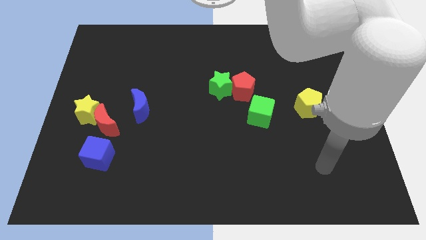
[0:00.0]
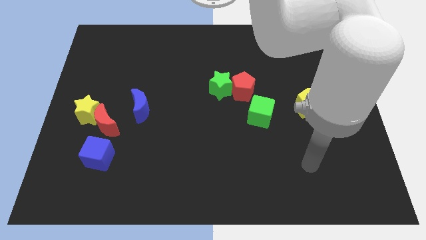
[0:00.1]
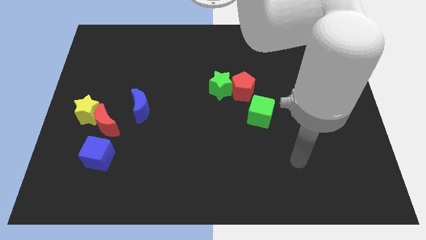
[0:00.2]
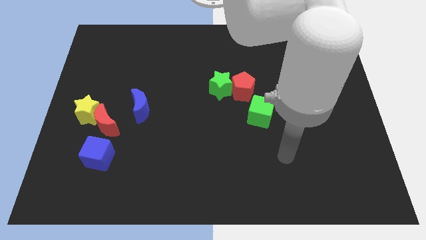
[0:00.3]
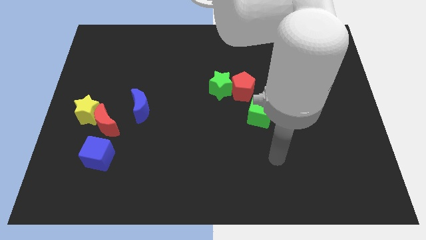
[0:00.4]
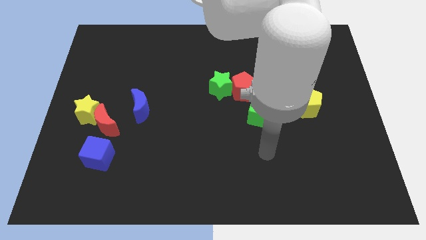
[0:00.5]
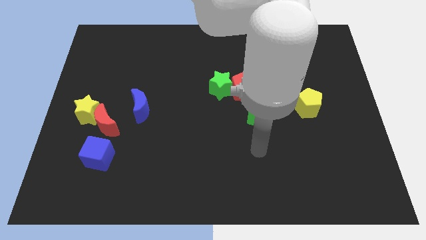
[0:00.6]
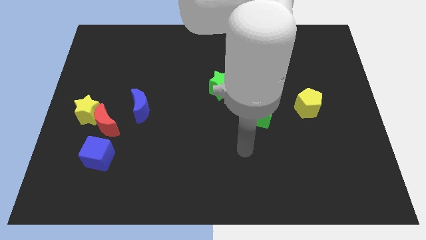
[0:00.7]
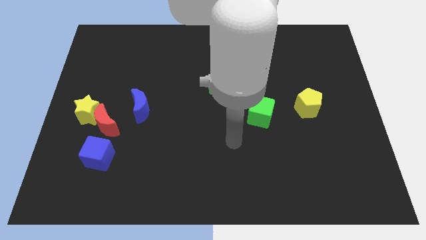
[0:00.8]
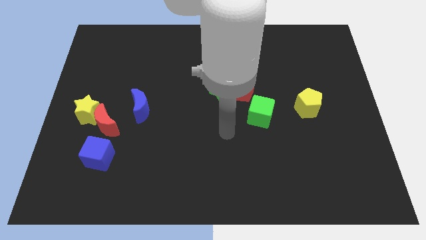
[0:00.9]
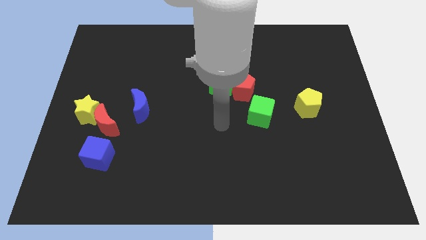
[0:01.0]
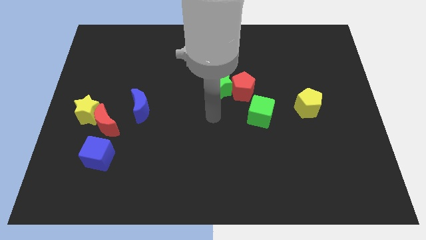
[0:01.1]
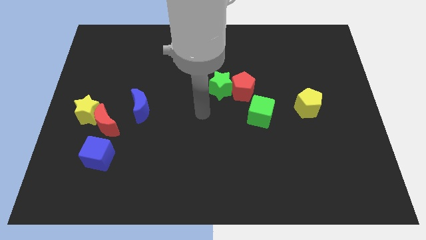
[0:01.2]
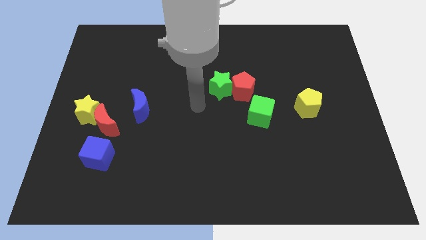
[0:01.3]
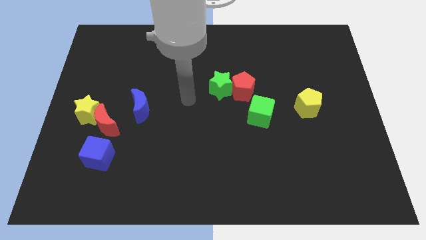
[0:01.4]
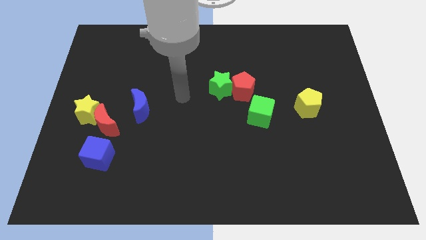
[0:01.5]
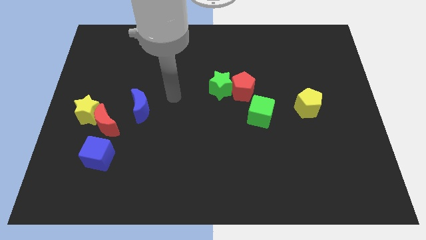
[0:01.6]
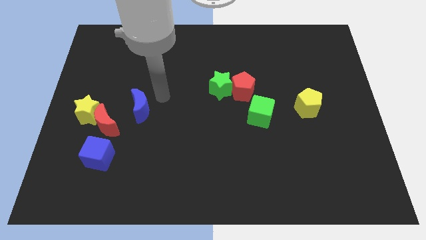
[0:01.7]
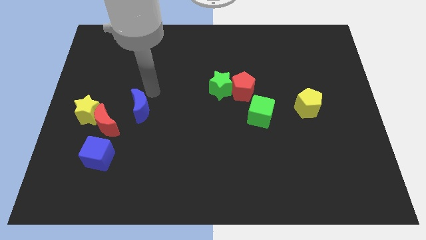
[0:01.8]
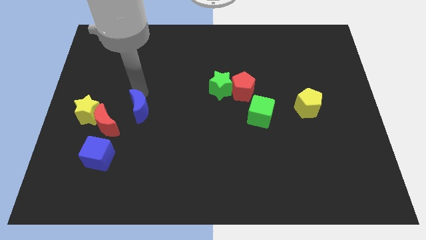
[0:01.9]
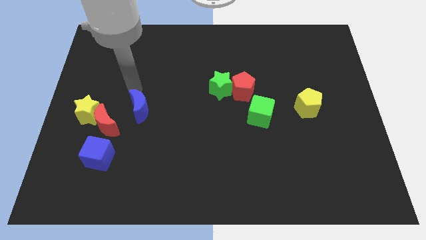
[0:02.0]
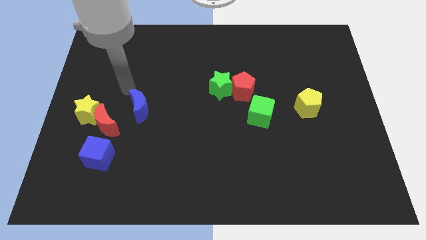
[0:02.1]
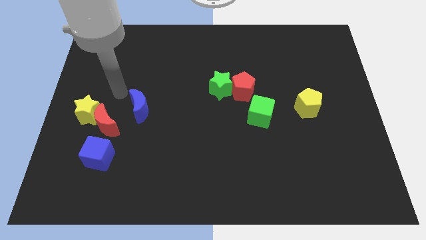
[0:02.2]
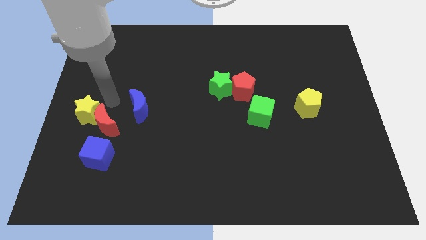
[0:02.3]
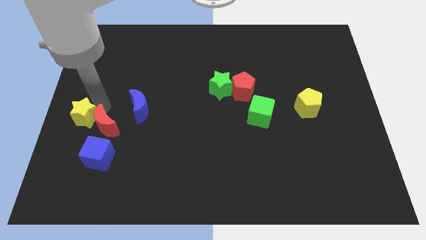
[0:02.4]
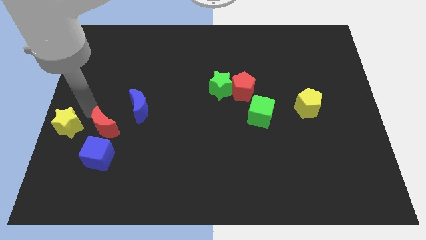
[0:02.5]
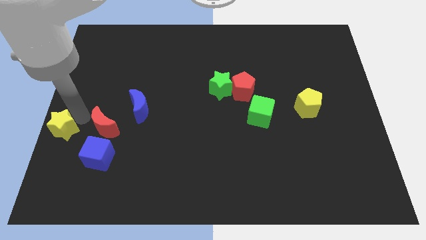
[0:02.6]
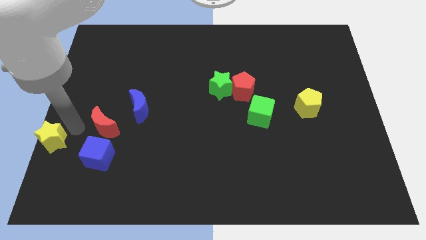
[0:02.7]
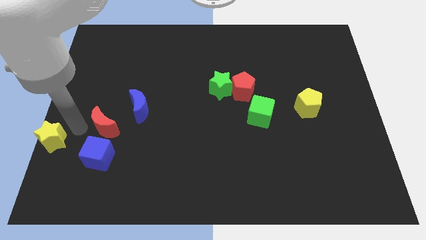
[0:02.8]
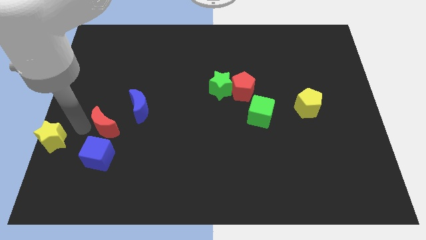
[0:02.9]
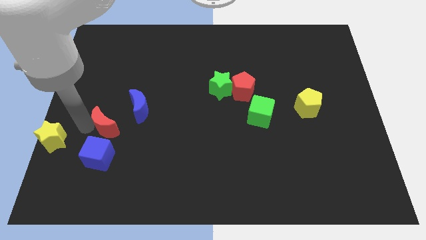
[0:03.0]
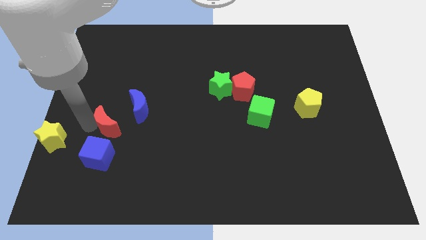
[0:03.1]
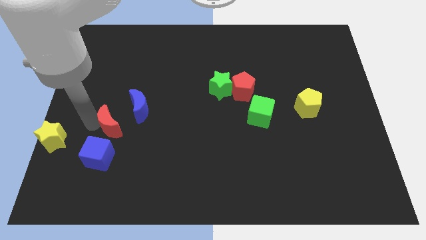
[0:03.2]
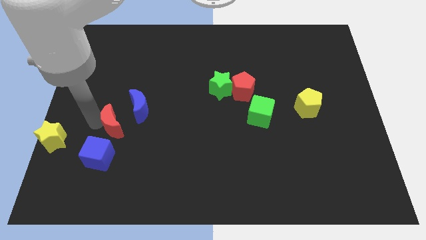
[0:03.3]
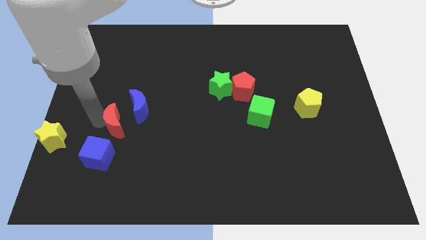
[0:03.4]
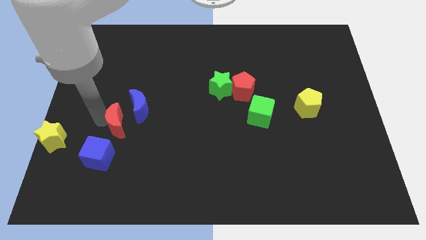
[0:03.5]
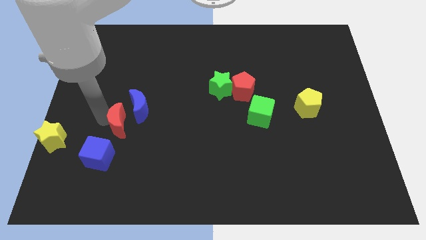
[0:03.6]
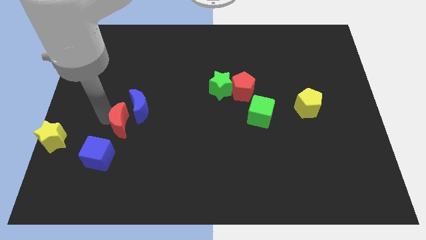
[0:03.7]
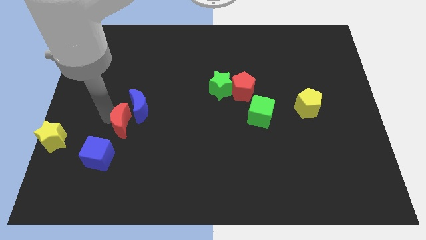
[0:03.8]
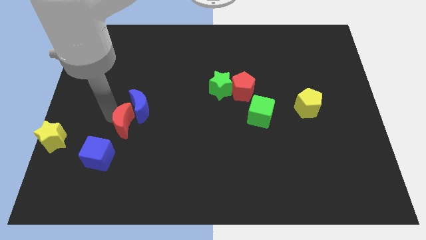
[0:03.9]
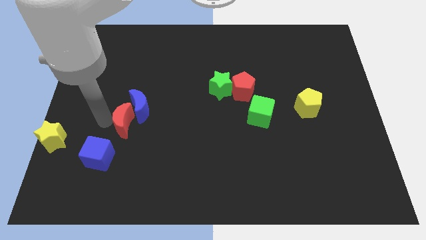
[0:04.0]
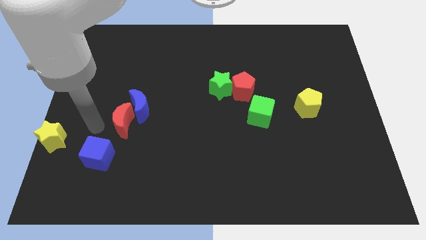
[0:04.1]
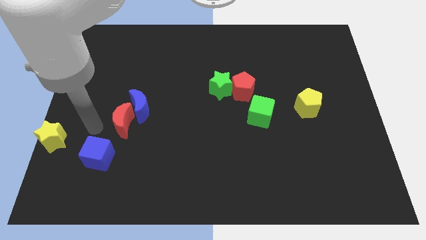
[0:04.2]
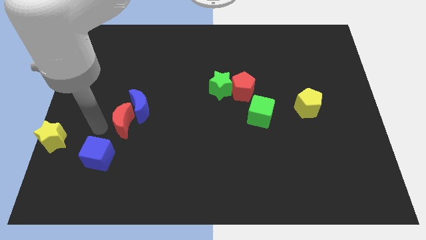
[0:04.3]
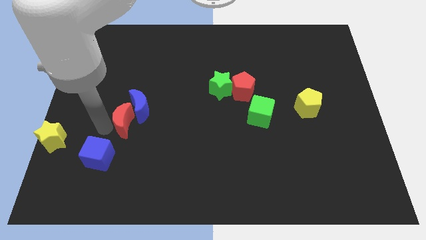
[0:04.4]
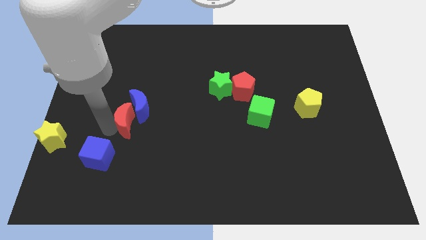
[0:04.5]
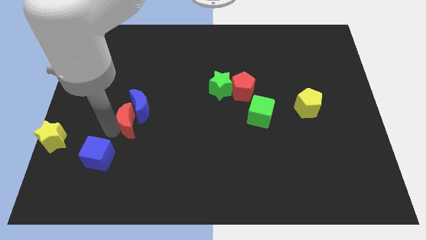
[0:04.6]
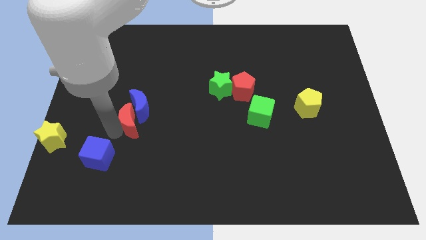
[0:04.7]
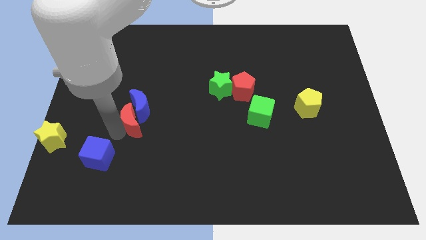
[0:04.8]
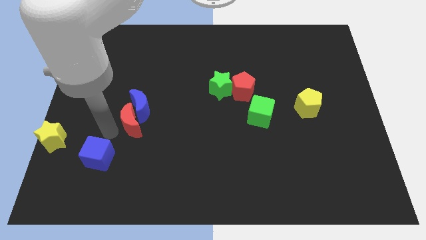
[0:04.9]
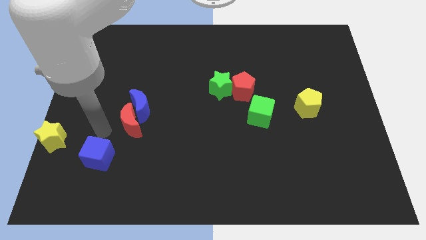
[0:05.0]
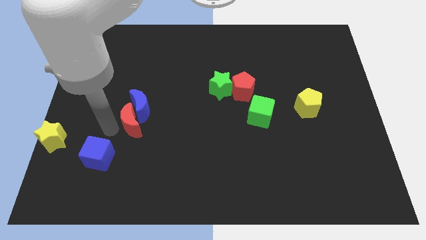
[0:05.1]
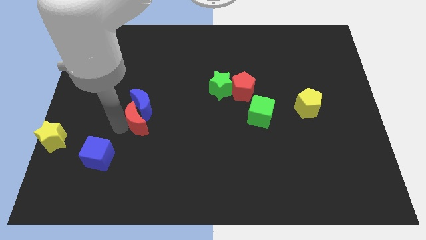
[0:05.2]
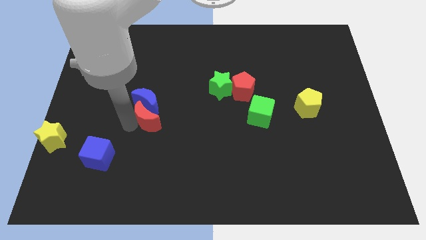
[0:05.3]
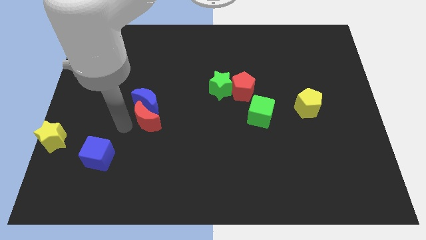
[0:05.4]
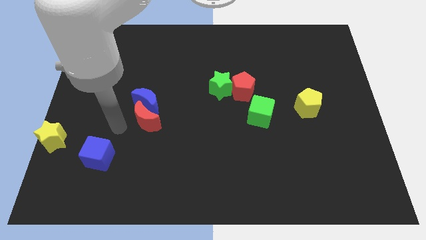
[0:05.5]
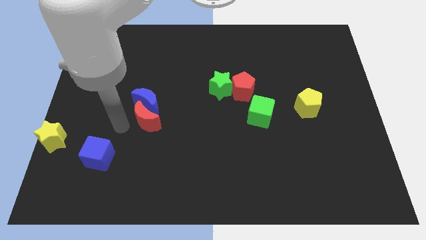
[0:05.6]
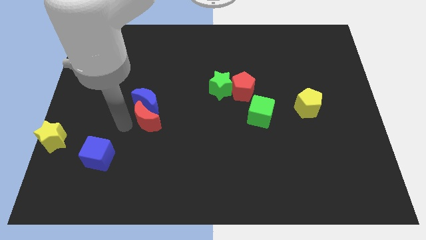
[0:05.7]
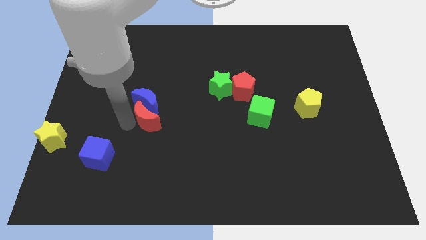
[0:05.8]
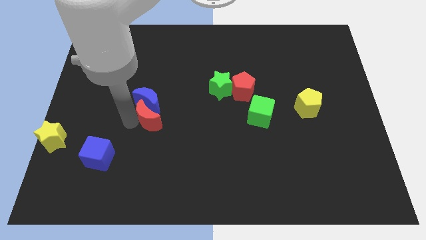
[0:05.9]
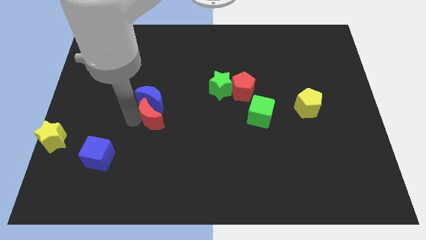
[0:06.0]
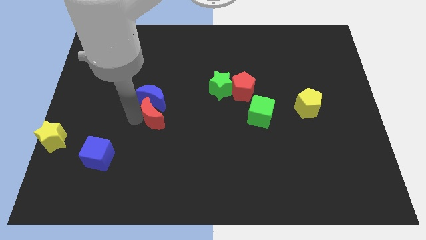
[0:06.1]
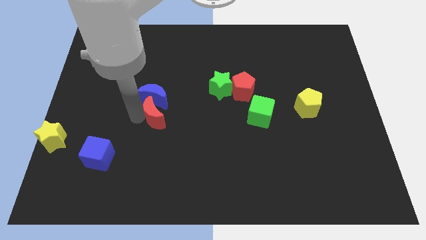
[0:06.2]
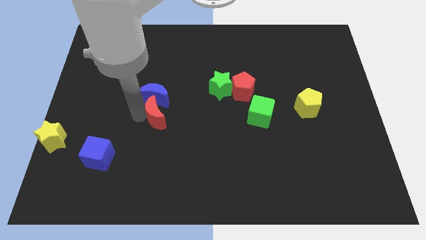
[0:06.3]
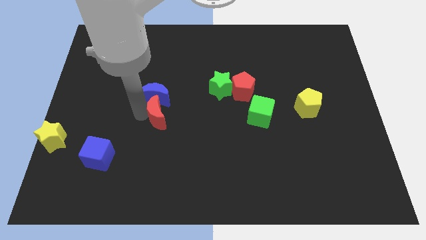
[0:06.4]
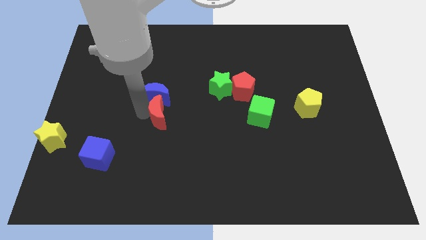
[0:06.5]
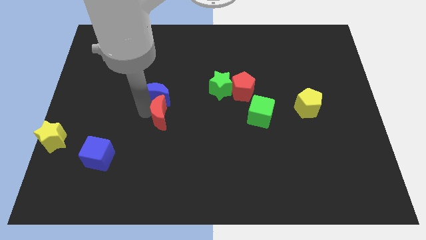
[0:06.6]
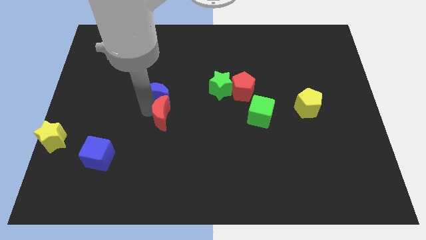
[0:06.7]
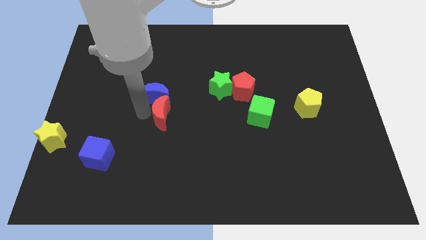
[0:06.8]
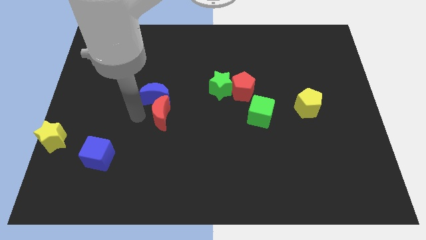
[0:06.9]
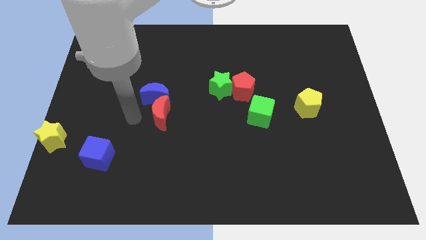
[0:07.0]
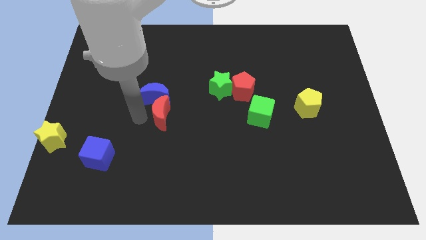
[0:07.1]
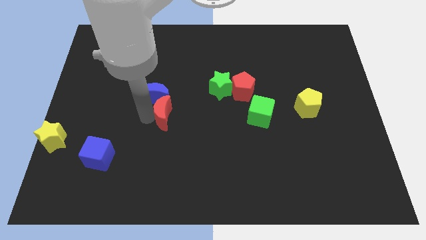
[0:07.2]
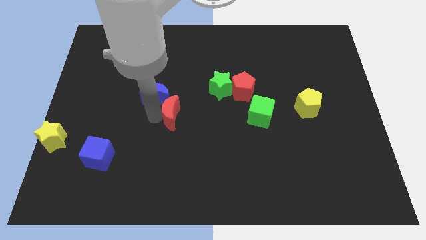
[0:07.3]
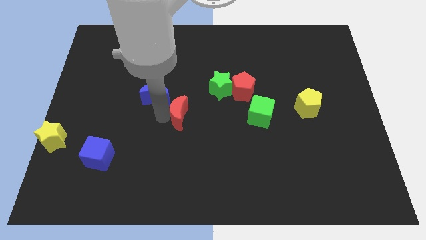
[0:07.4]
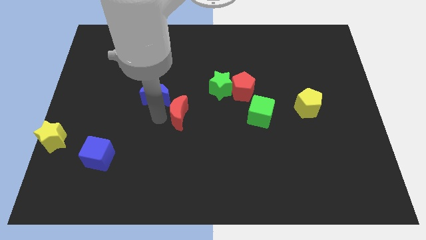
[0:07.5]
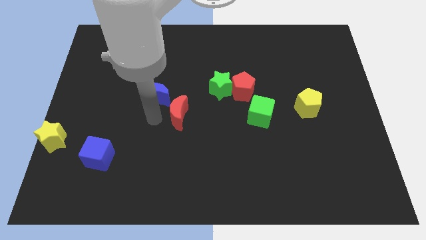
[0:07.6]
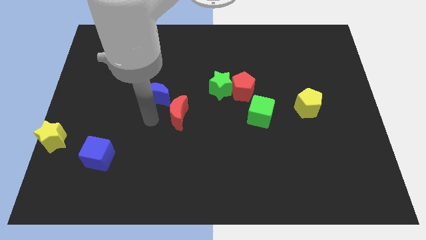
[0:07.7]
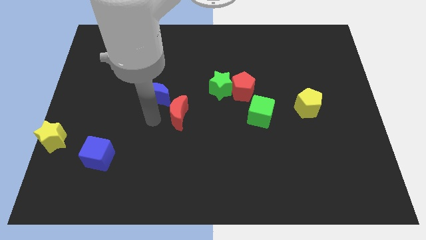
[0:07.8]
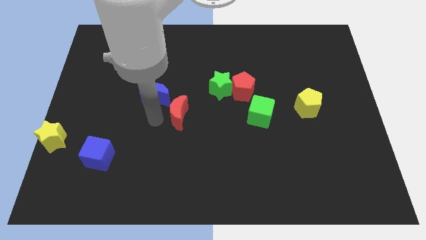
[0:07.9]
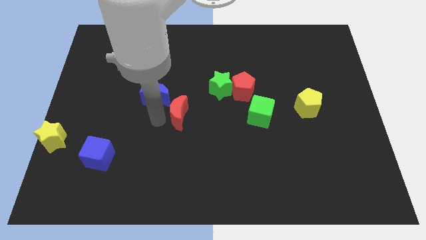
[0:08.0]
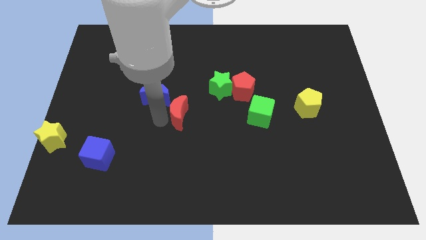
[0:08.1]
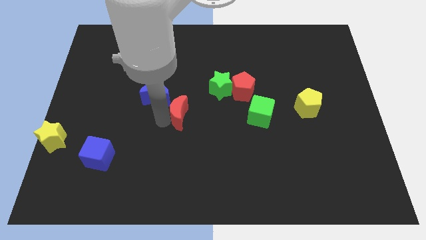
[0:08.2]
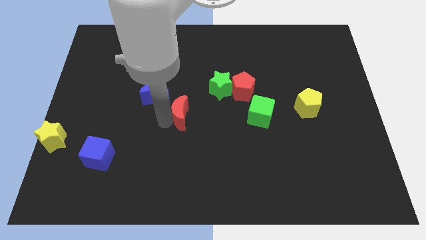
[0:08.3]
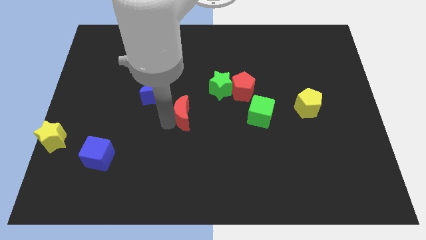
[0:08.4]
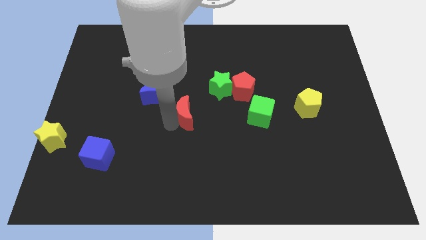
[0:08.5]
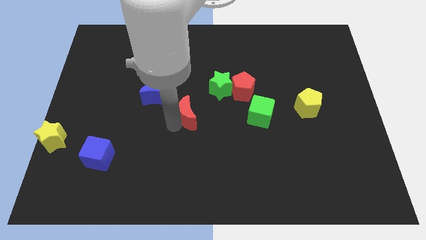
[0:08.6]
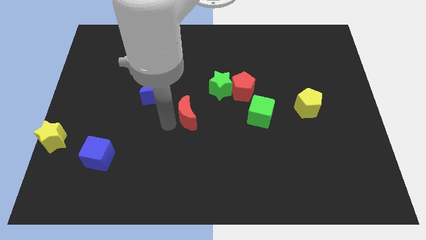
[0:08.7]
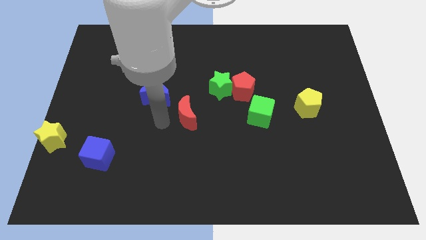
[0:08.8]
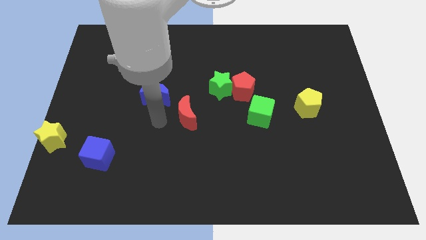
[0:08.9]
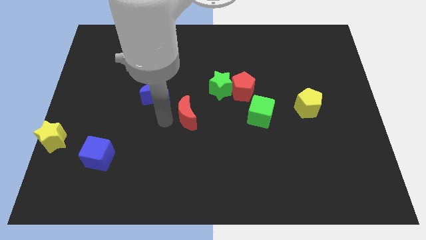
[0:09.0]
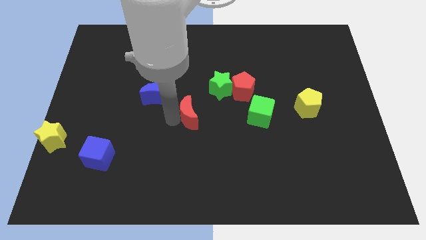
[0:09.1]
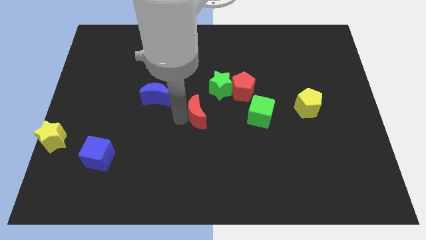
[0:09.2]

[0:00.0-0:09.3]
slide the red moon right
